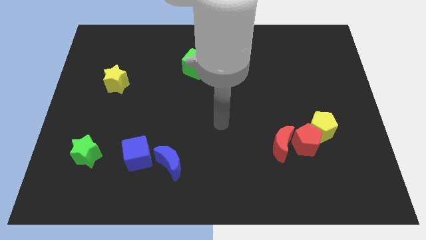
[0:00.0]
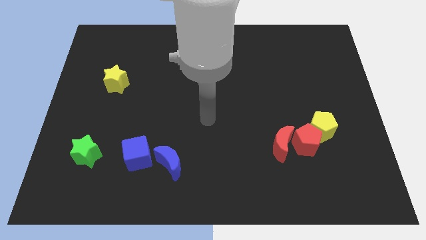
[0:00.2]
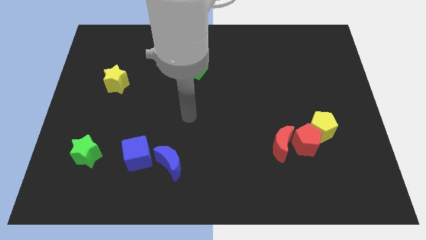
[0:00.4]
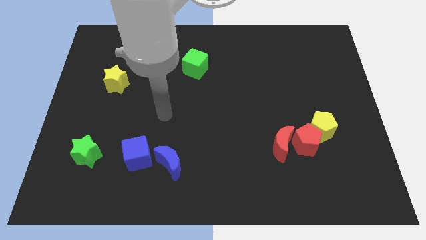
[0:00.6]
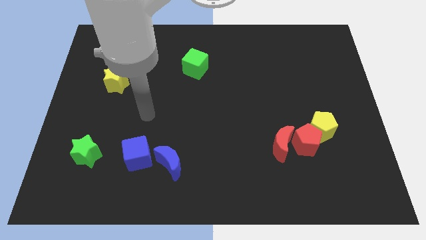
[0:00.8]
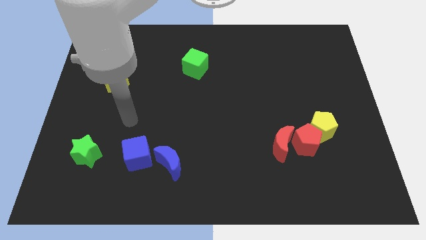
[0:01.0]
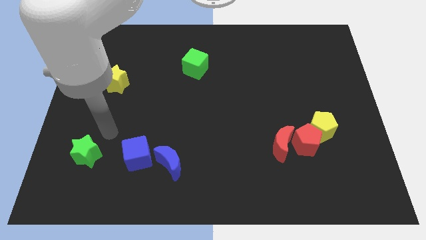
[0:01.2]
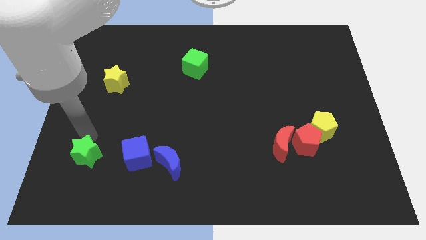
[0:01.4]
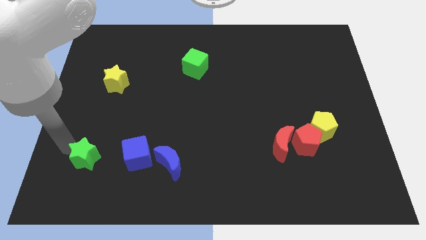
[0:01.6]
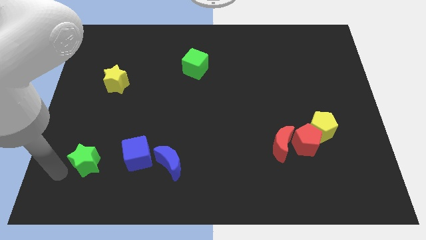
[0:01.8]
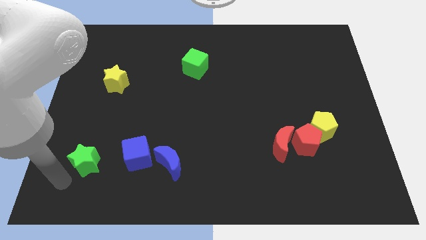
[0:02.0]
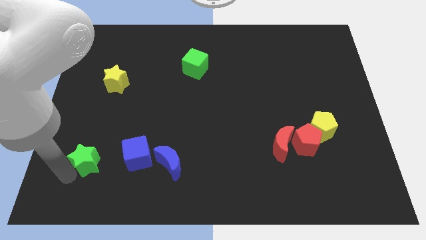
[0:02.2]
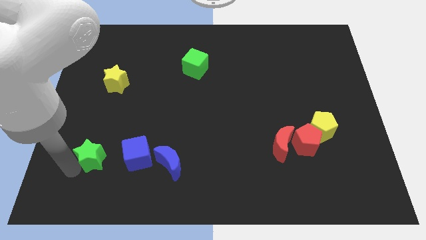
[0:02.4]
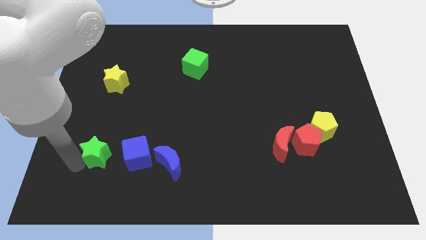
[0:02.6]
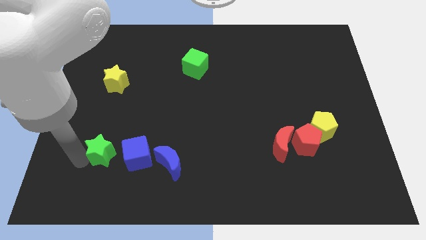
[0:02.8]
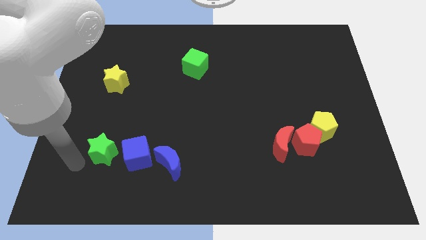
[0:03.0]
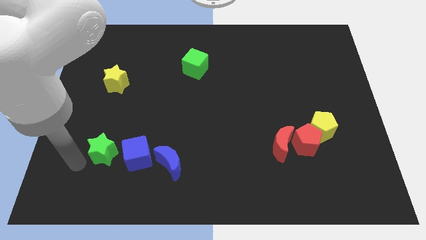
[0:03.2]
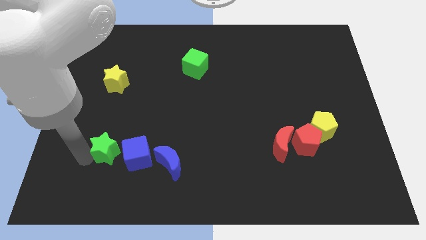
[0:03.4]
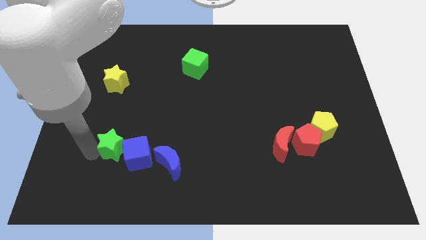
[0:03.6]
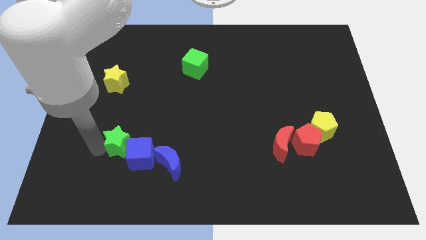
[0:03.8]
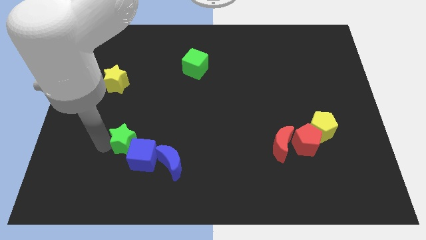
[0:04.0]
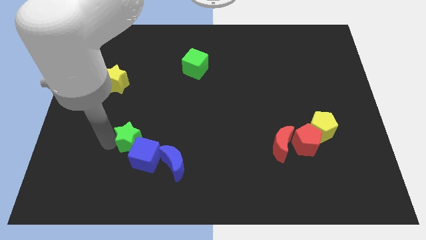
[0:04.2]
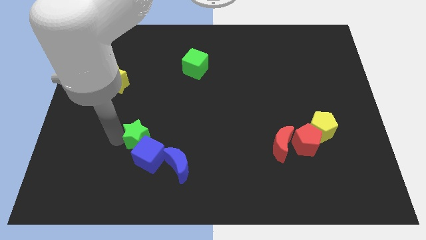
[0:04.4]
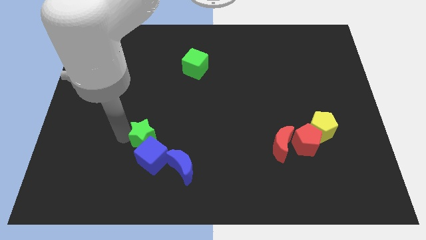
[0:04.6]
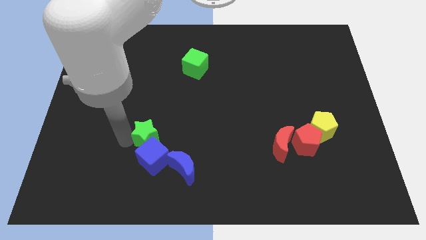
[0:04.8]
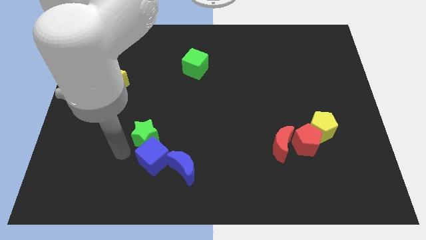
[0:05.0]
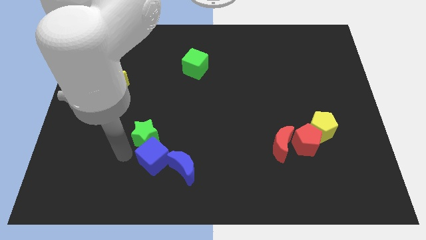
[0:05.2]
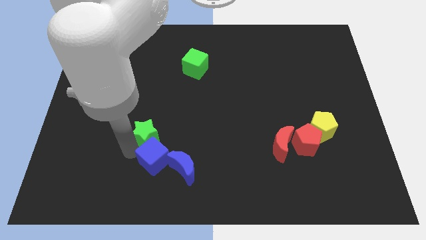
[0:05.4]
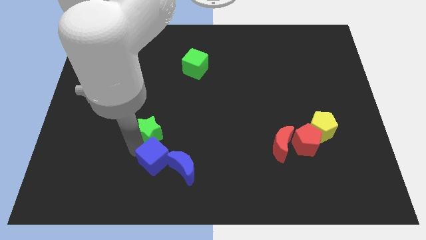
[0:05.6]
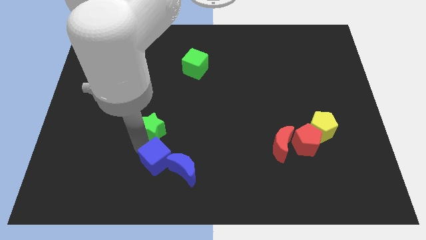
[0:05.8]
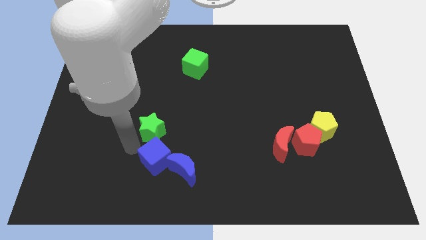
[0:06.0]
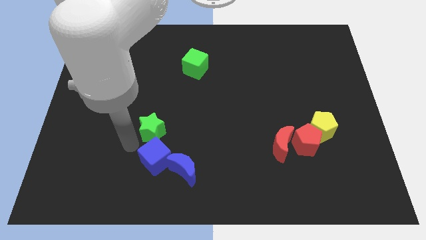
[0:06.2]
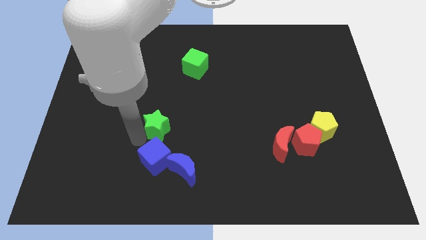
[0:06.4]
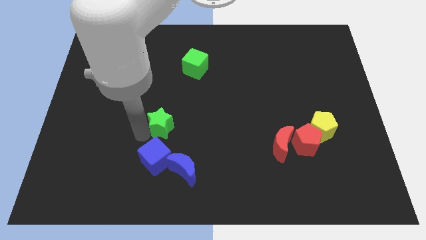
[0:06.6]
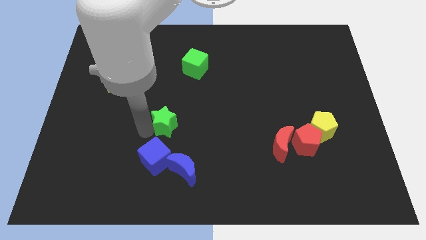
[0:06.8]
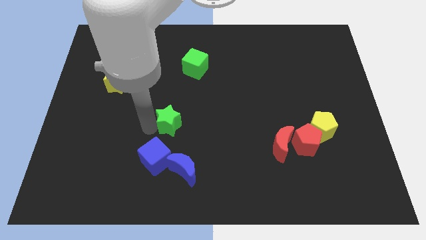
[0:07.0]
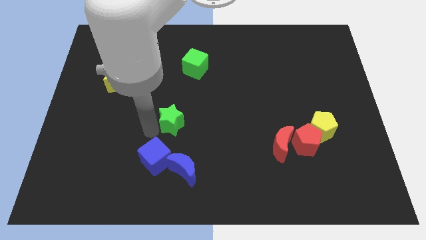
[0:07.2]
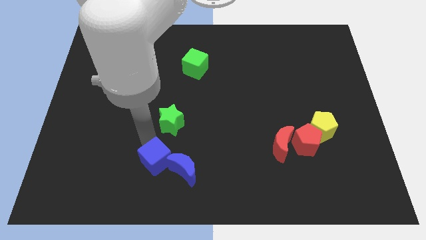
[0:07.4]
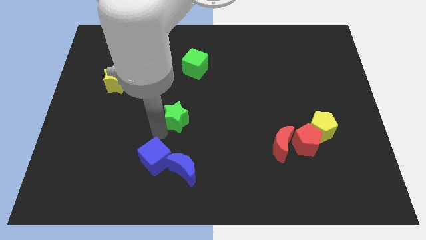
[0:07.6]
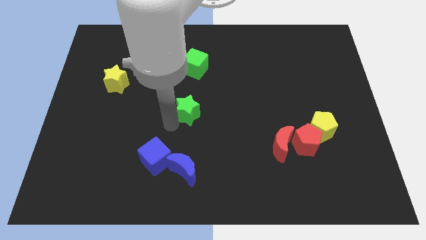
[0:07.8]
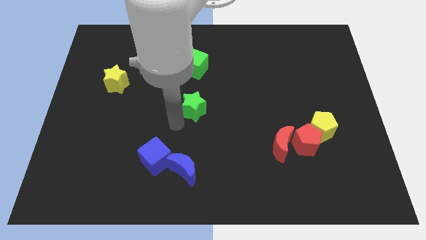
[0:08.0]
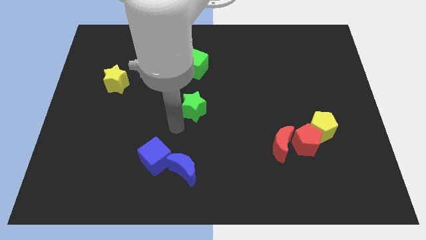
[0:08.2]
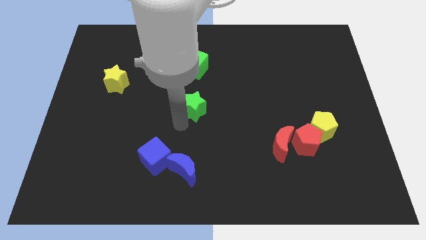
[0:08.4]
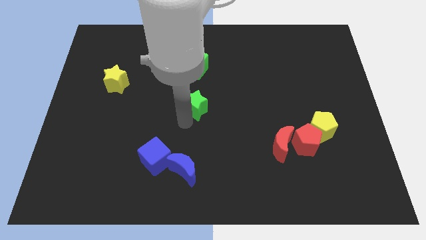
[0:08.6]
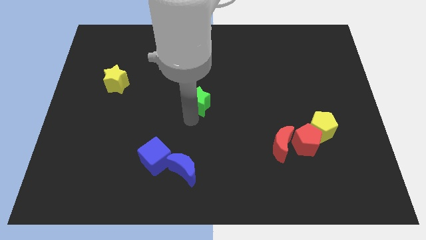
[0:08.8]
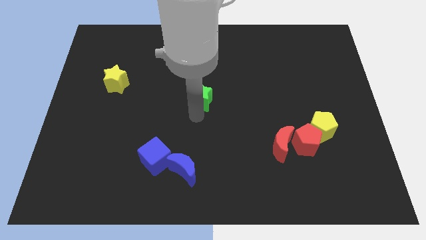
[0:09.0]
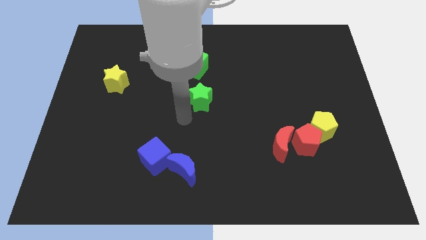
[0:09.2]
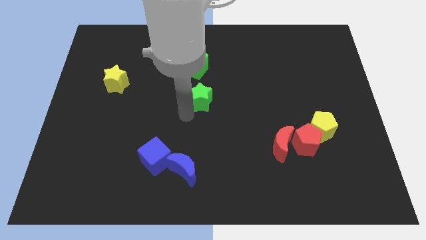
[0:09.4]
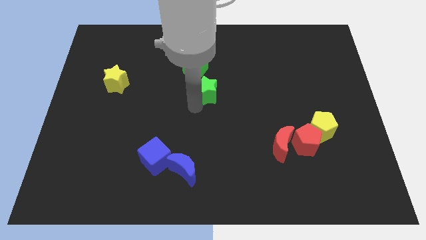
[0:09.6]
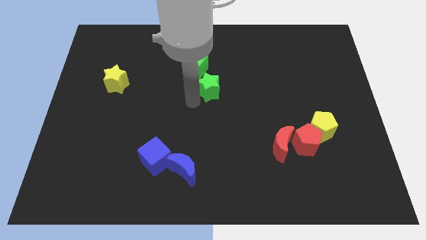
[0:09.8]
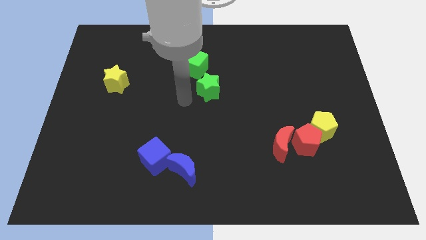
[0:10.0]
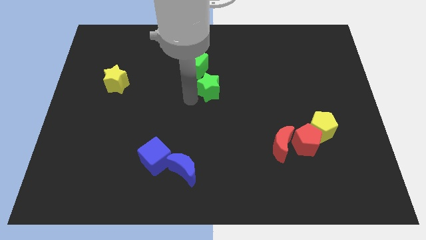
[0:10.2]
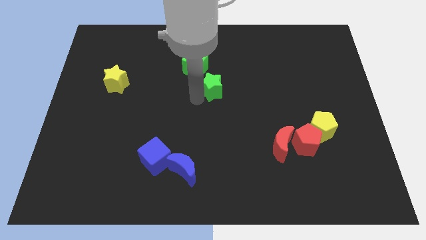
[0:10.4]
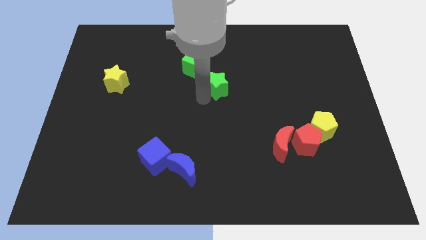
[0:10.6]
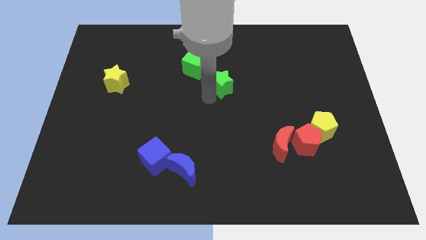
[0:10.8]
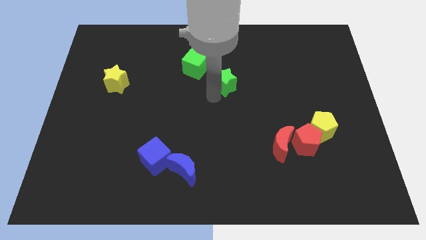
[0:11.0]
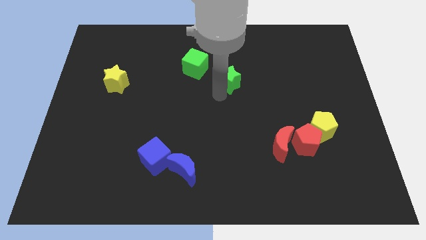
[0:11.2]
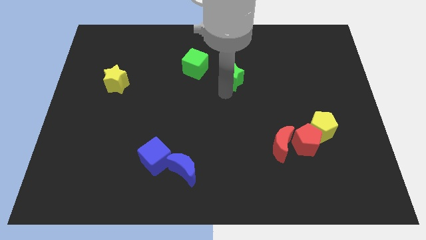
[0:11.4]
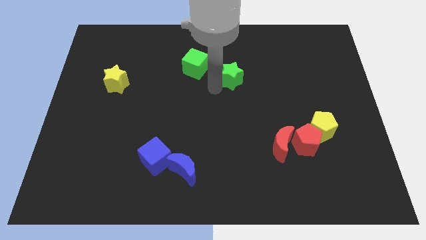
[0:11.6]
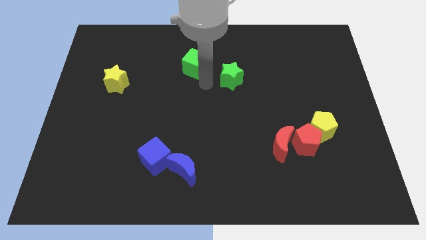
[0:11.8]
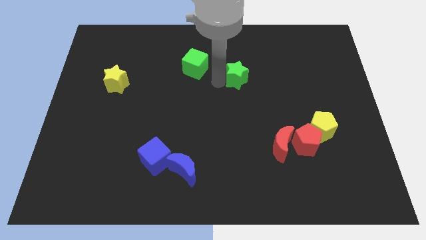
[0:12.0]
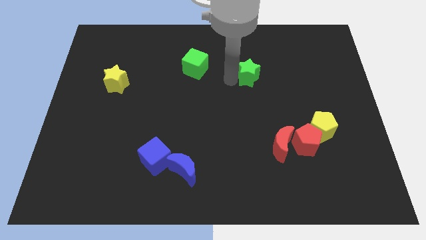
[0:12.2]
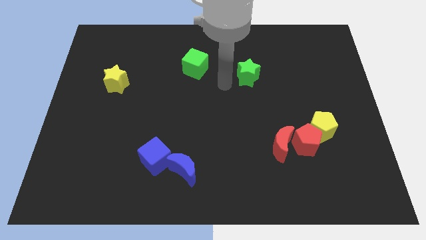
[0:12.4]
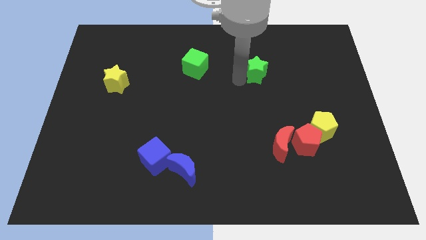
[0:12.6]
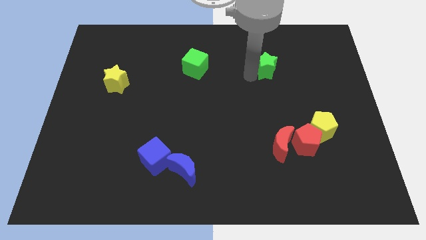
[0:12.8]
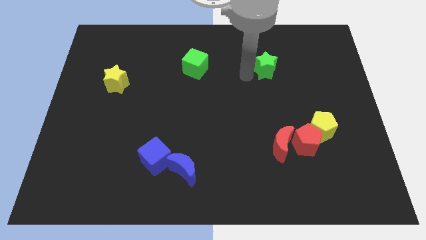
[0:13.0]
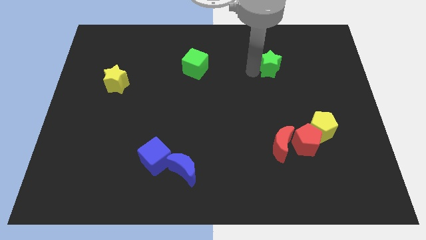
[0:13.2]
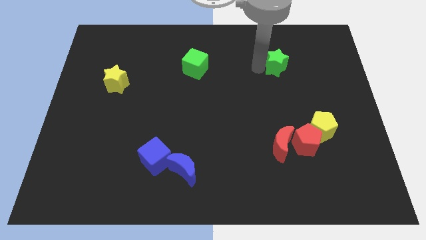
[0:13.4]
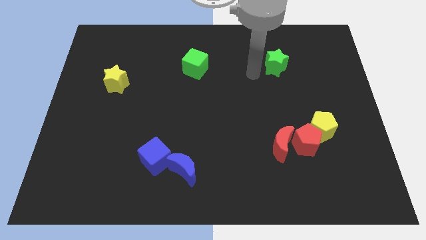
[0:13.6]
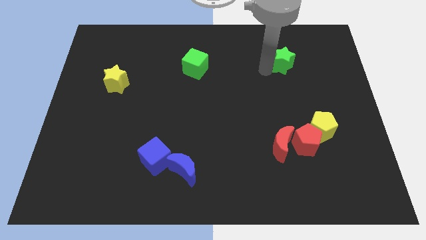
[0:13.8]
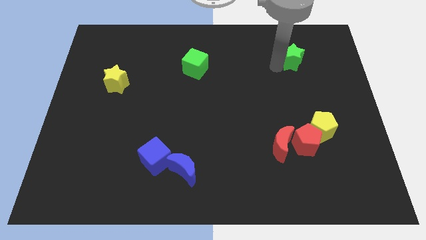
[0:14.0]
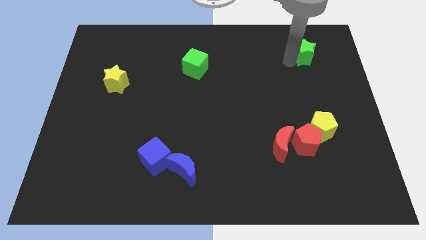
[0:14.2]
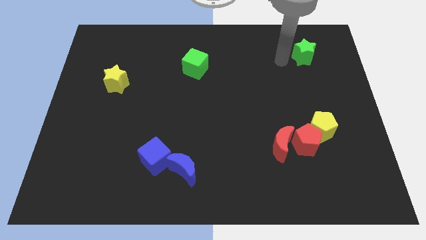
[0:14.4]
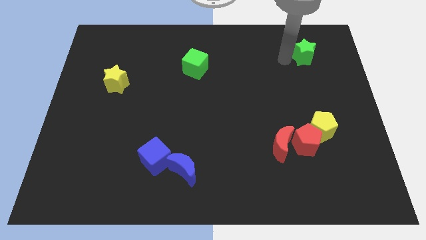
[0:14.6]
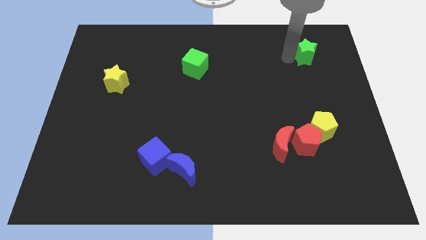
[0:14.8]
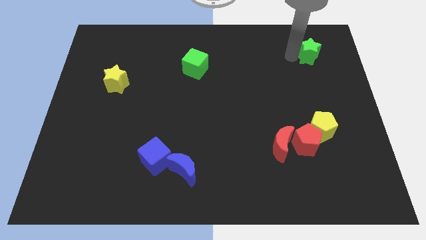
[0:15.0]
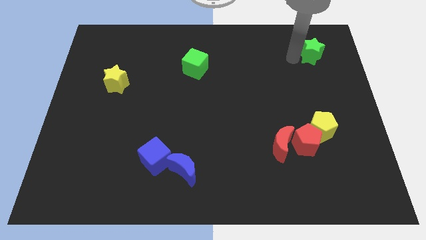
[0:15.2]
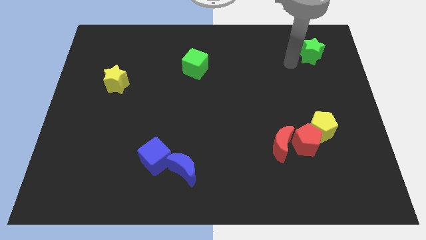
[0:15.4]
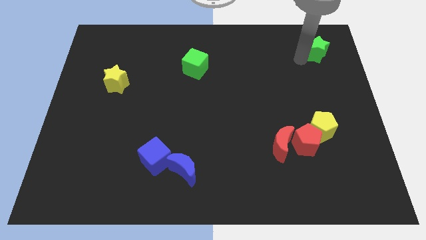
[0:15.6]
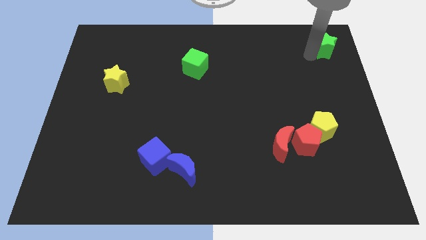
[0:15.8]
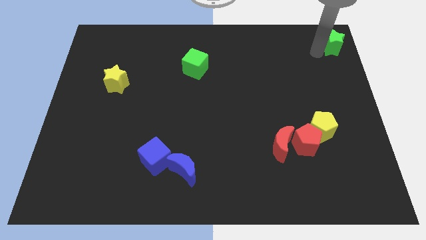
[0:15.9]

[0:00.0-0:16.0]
push the green star to the top right corner
